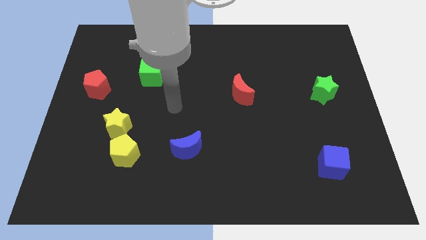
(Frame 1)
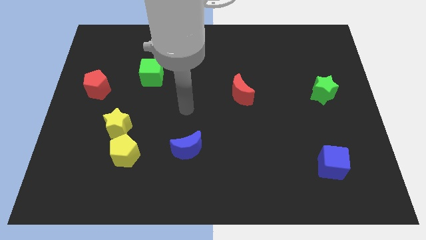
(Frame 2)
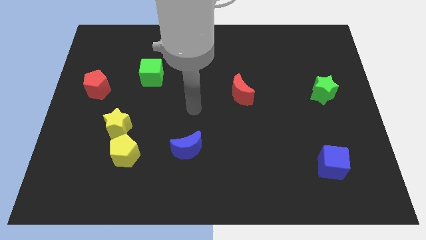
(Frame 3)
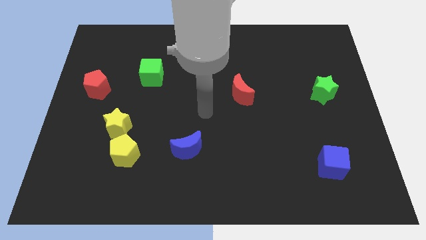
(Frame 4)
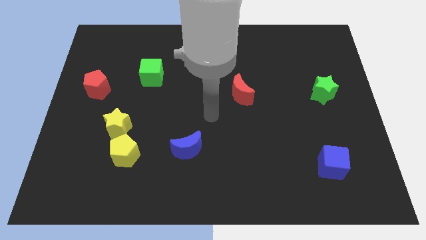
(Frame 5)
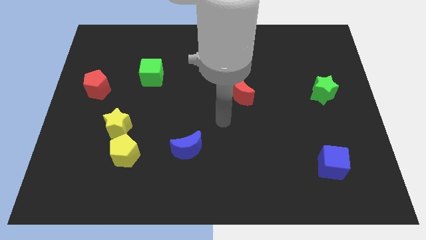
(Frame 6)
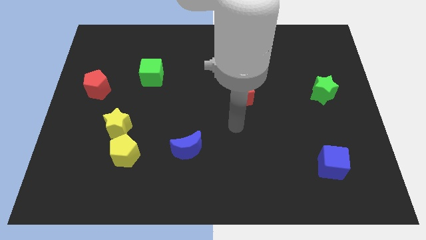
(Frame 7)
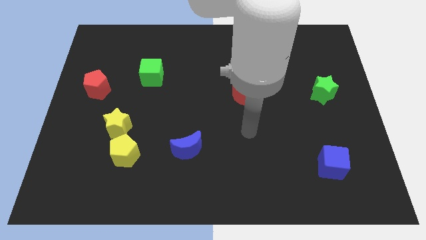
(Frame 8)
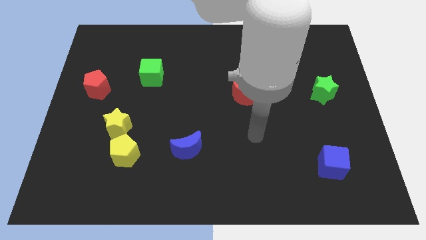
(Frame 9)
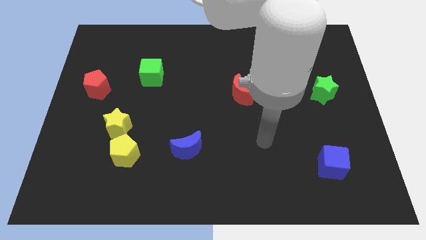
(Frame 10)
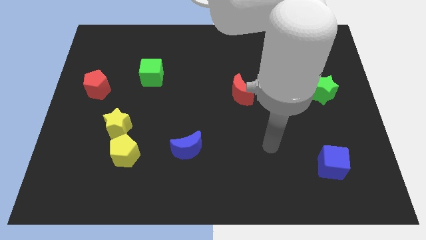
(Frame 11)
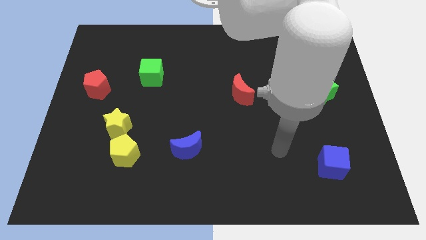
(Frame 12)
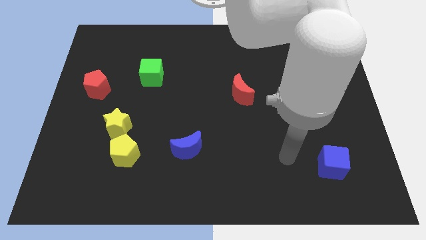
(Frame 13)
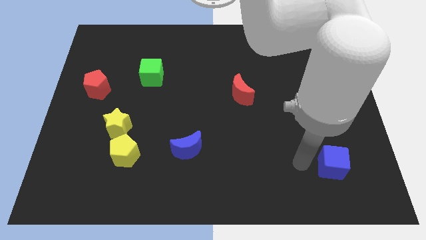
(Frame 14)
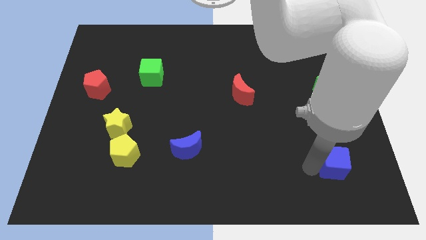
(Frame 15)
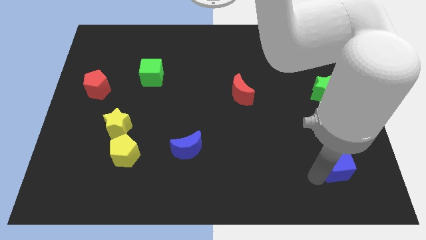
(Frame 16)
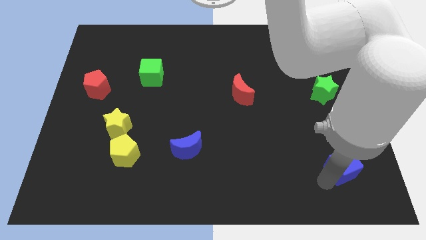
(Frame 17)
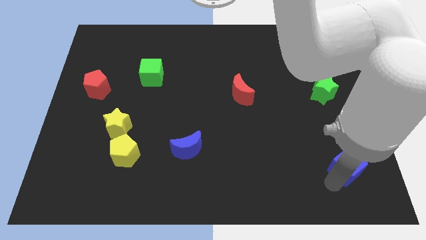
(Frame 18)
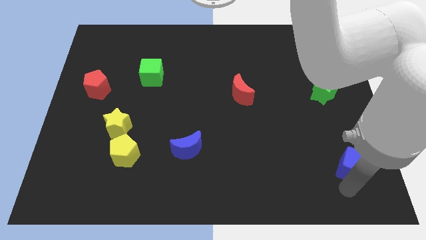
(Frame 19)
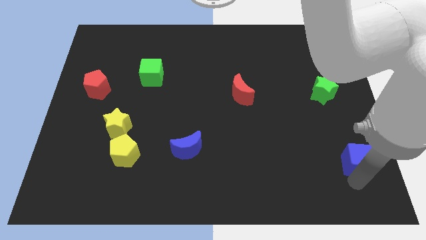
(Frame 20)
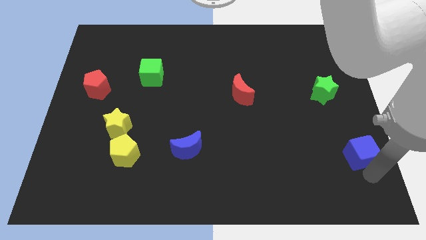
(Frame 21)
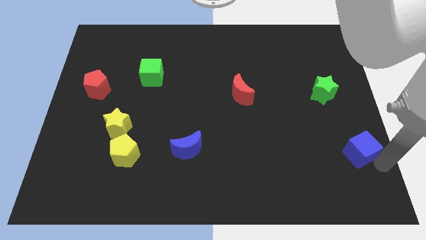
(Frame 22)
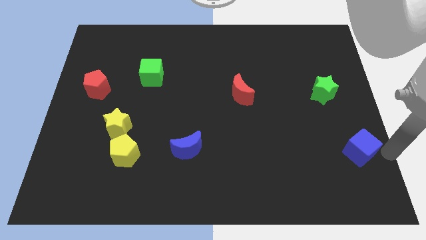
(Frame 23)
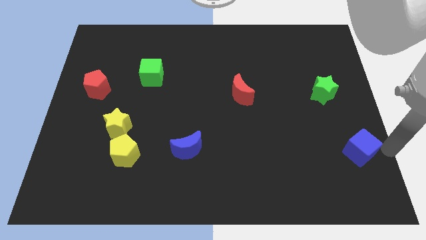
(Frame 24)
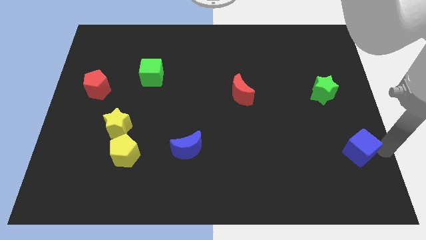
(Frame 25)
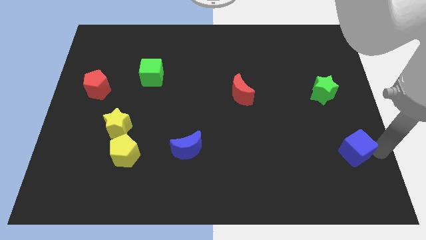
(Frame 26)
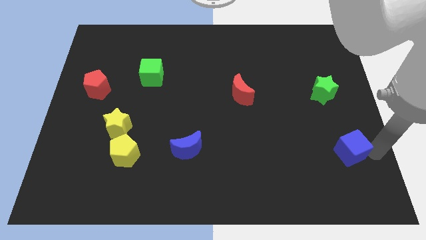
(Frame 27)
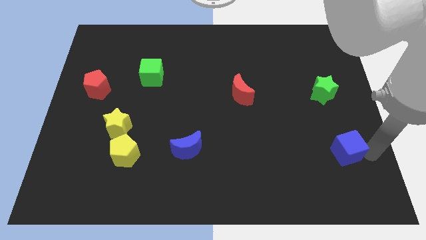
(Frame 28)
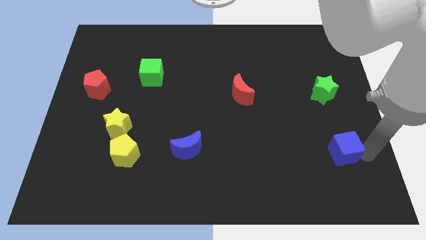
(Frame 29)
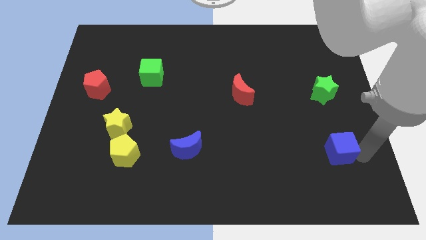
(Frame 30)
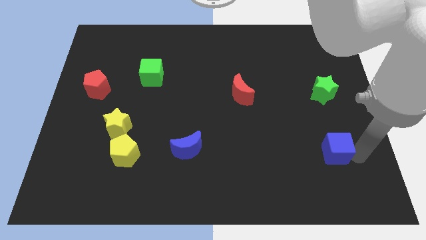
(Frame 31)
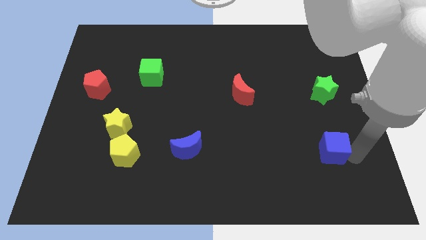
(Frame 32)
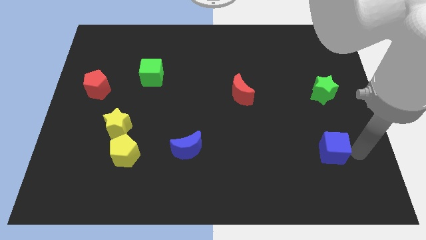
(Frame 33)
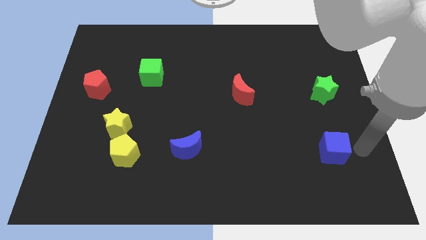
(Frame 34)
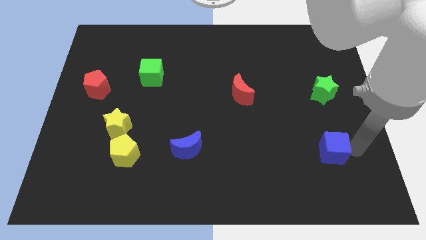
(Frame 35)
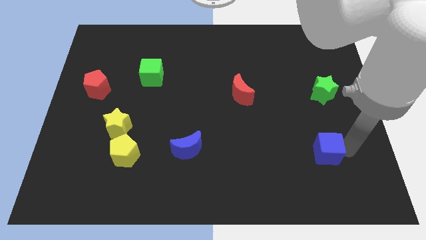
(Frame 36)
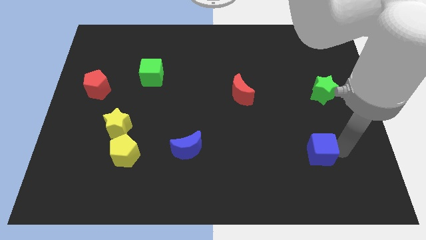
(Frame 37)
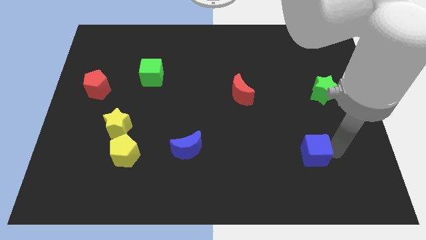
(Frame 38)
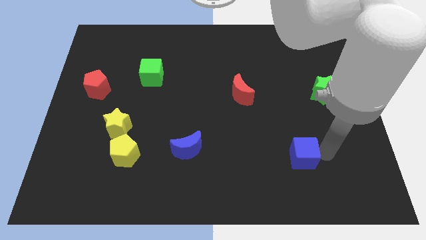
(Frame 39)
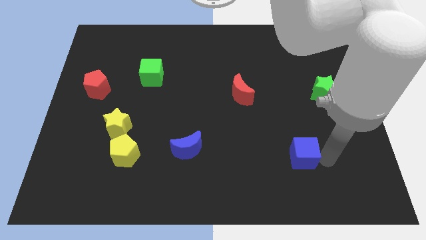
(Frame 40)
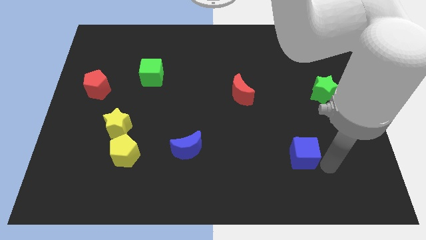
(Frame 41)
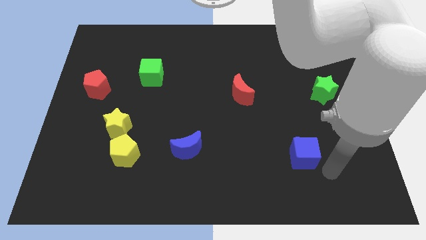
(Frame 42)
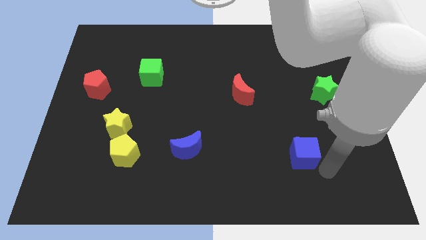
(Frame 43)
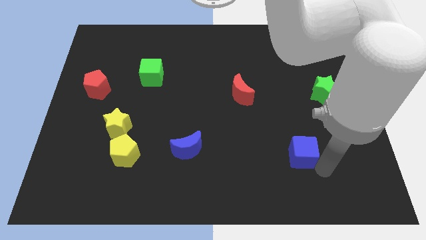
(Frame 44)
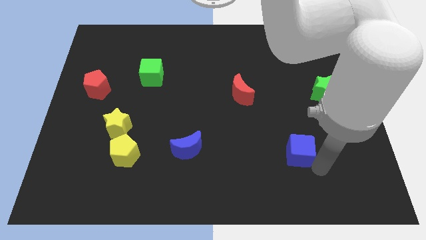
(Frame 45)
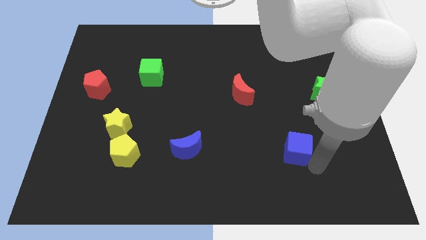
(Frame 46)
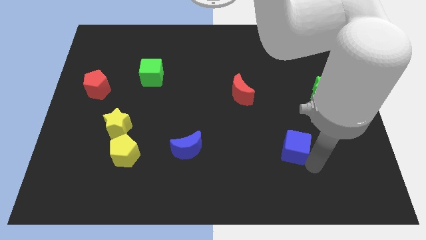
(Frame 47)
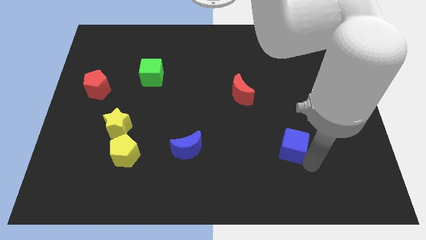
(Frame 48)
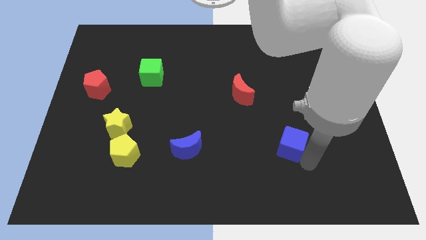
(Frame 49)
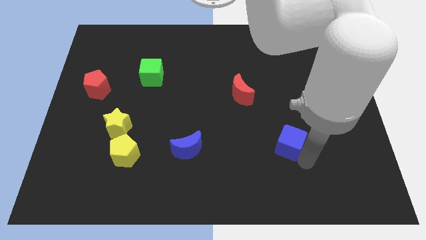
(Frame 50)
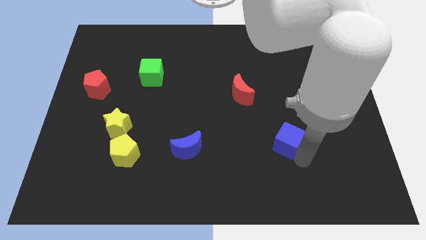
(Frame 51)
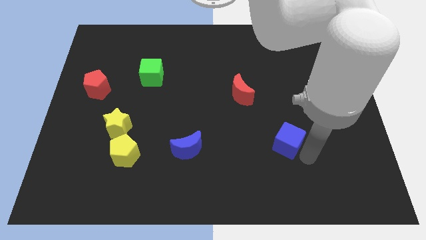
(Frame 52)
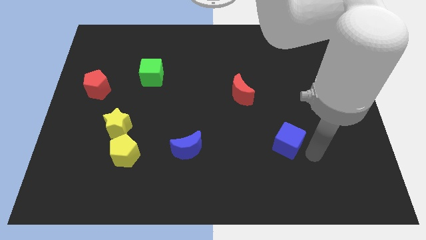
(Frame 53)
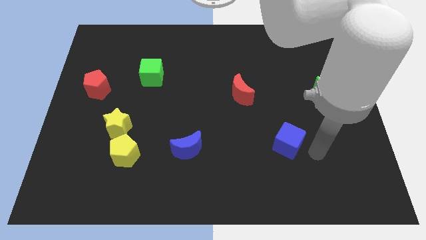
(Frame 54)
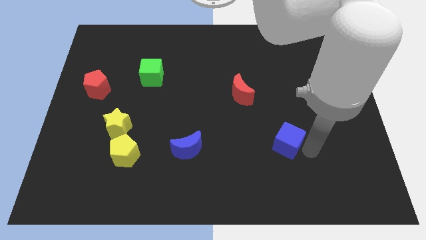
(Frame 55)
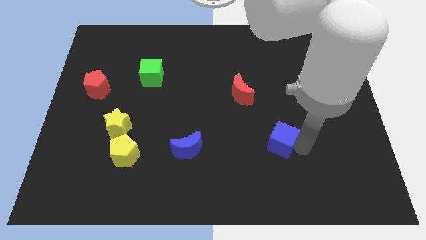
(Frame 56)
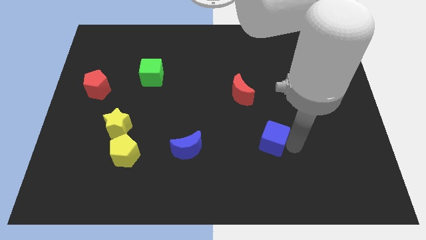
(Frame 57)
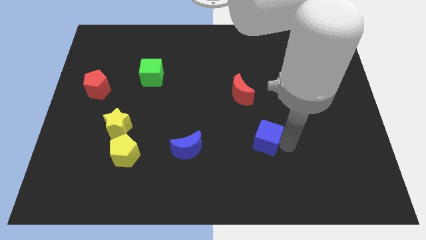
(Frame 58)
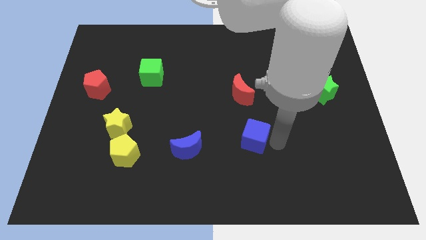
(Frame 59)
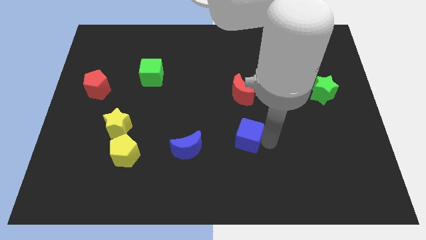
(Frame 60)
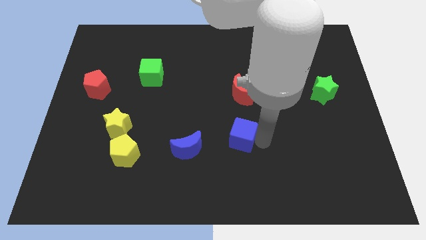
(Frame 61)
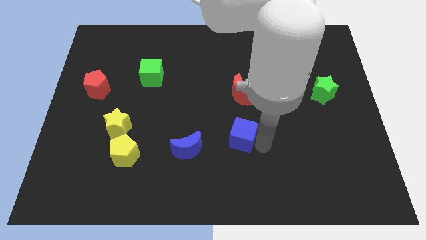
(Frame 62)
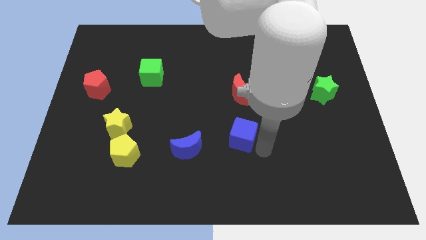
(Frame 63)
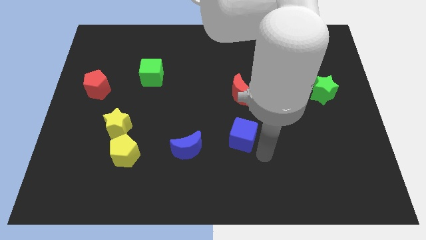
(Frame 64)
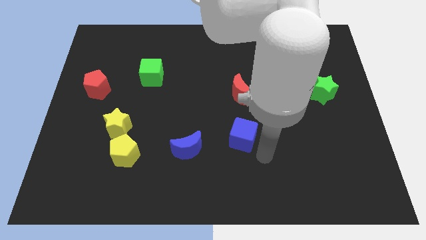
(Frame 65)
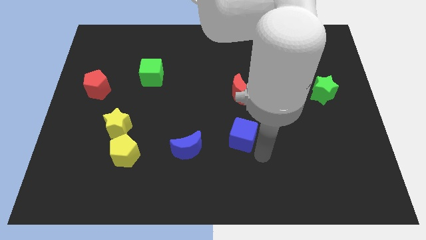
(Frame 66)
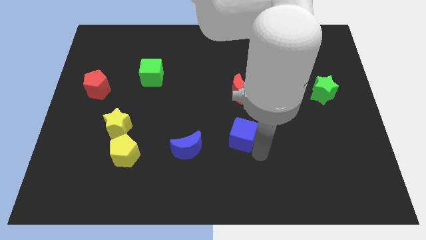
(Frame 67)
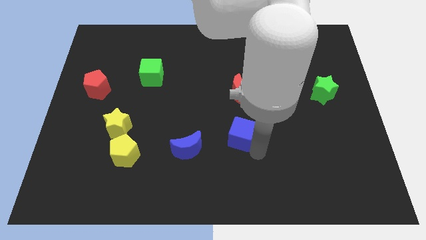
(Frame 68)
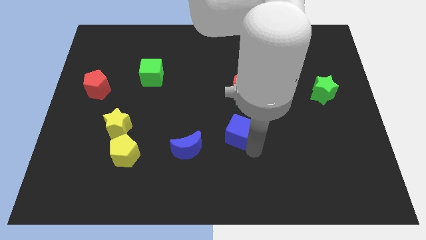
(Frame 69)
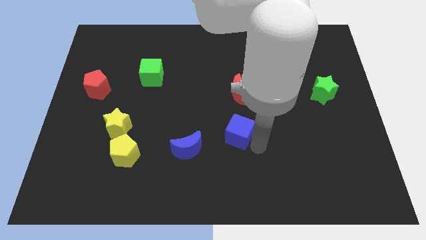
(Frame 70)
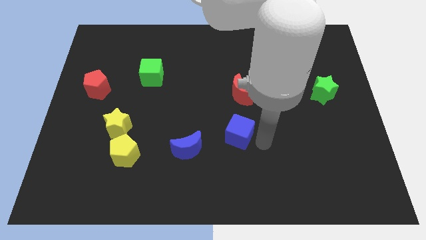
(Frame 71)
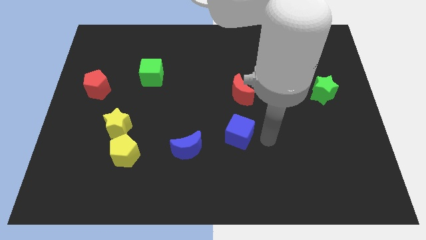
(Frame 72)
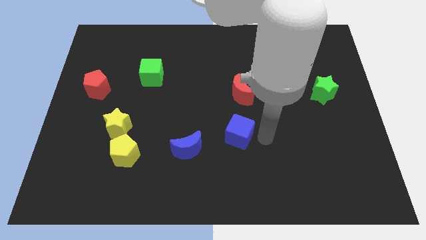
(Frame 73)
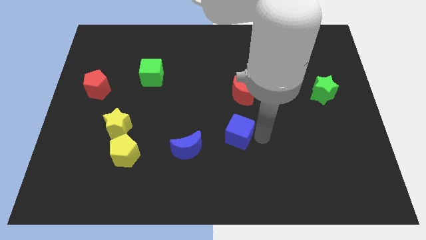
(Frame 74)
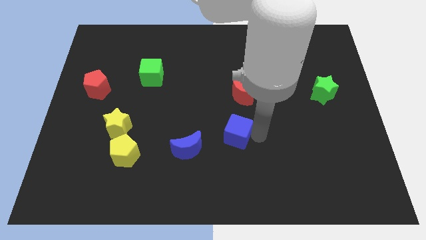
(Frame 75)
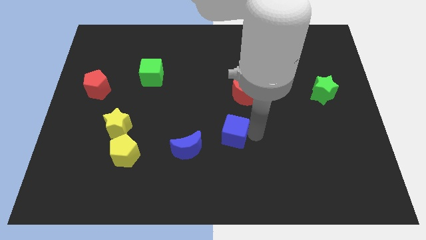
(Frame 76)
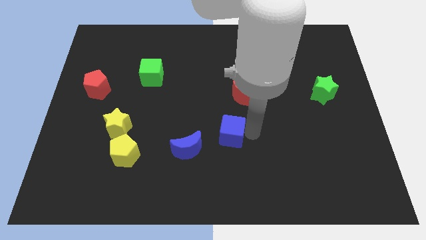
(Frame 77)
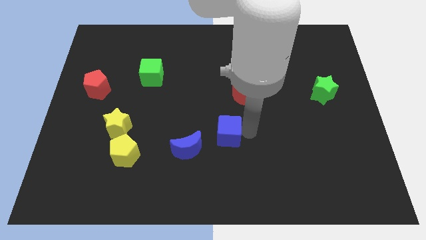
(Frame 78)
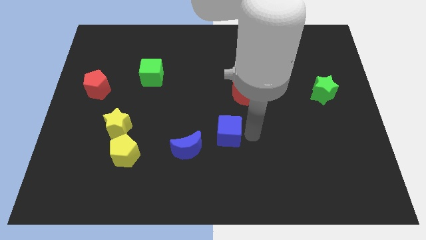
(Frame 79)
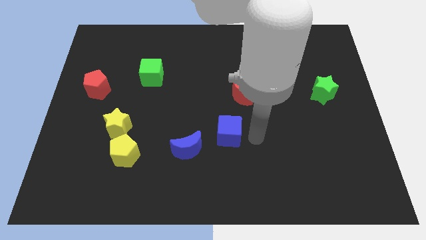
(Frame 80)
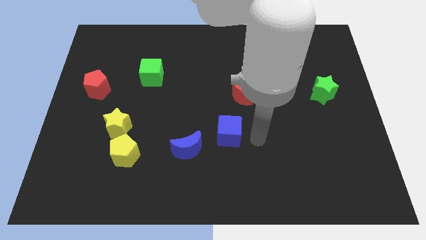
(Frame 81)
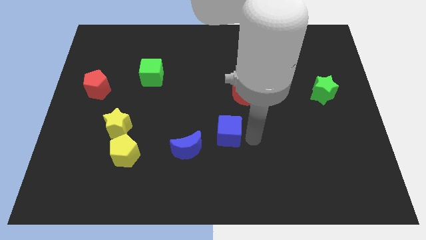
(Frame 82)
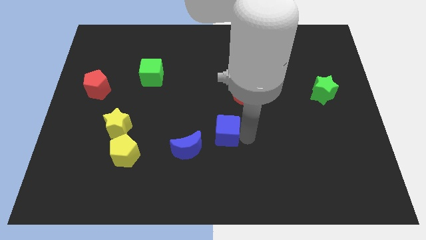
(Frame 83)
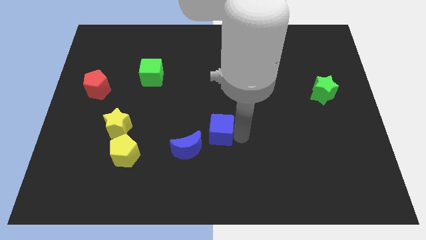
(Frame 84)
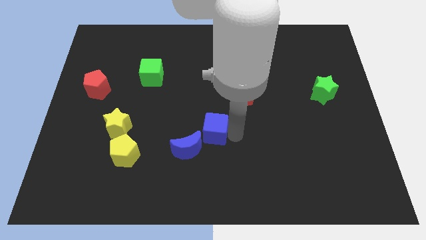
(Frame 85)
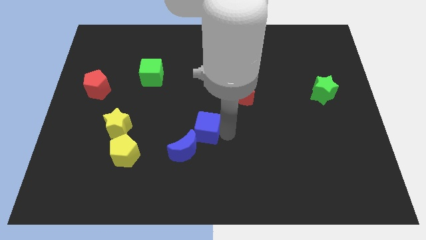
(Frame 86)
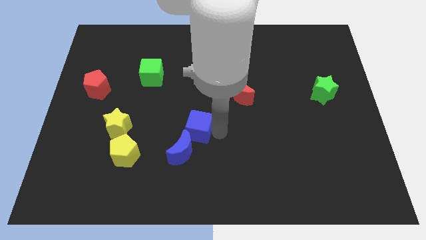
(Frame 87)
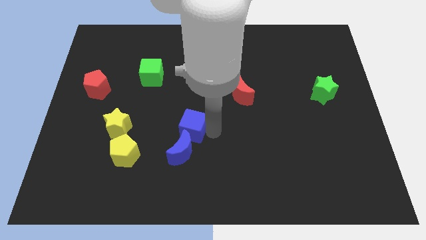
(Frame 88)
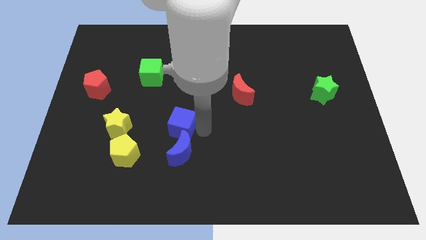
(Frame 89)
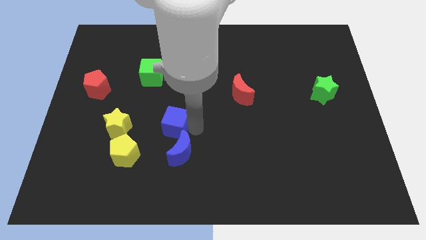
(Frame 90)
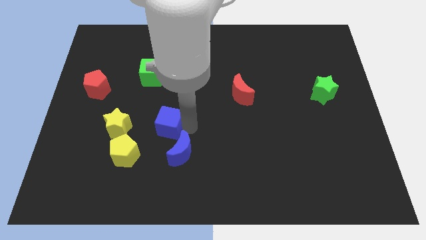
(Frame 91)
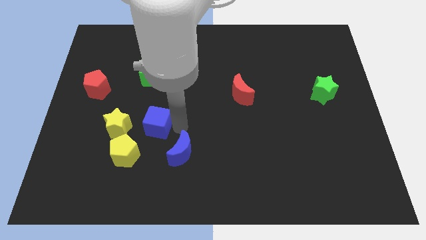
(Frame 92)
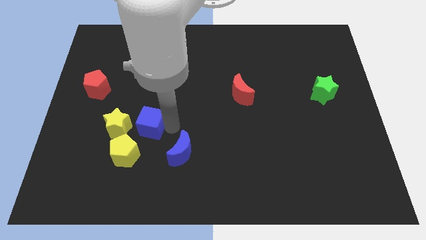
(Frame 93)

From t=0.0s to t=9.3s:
move the blue cube above the yellow pentagon
